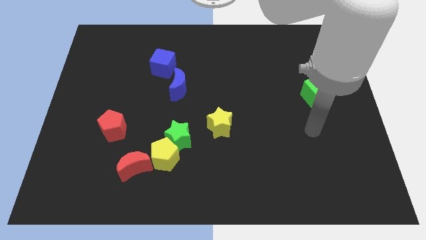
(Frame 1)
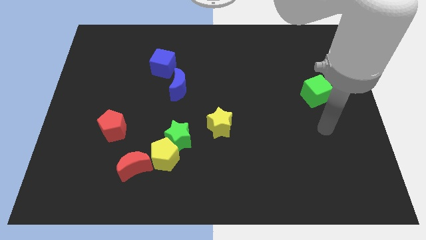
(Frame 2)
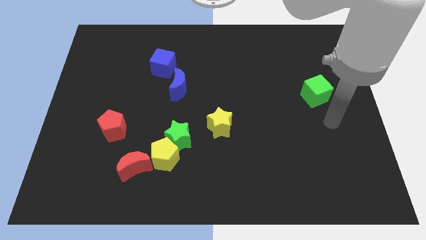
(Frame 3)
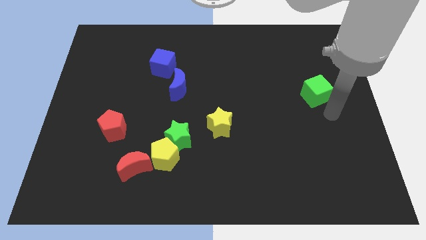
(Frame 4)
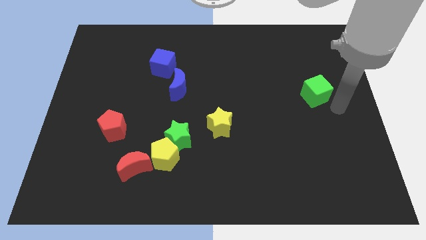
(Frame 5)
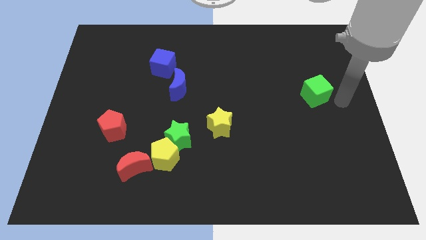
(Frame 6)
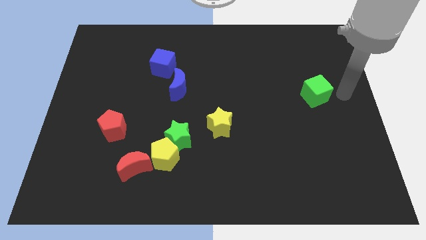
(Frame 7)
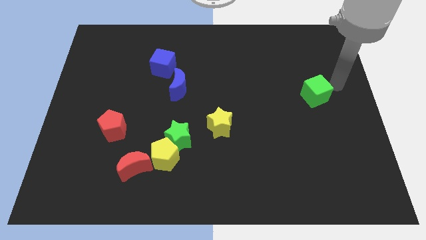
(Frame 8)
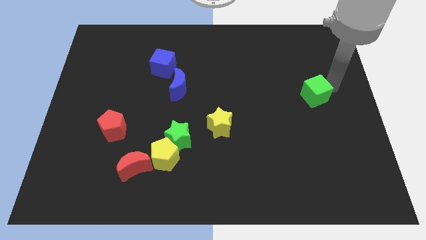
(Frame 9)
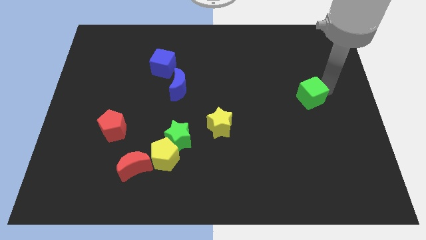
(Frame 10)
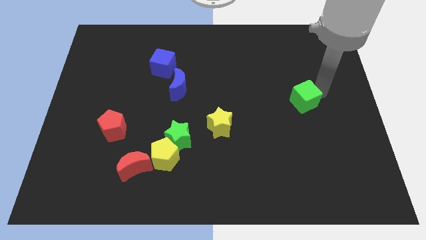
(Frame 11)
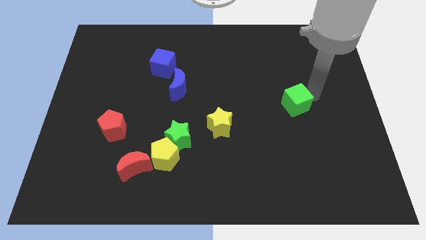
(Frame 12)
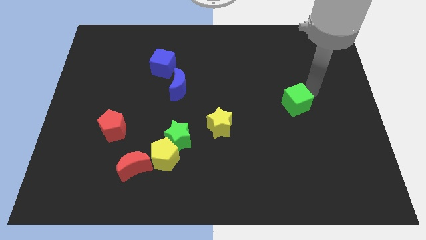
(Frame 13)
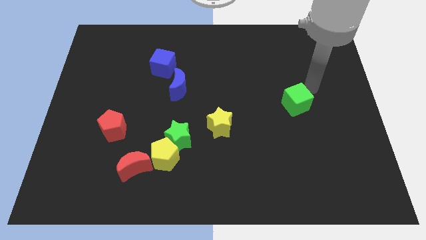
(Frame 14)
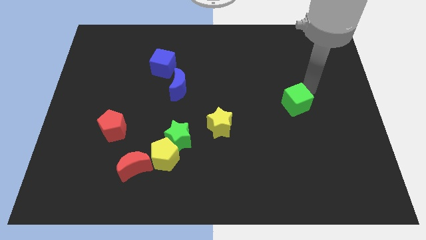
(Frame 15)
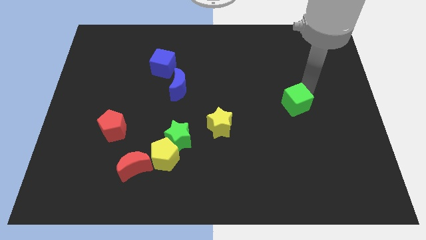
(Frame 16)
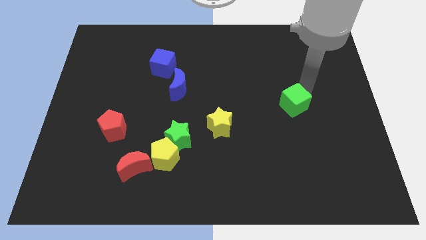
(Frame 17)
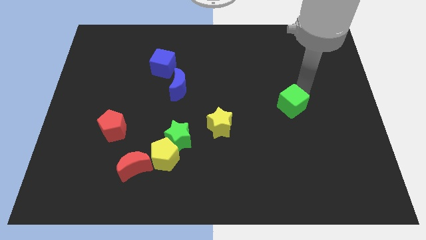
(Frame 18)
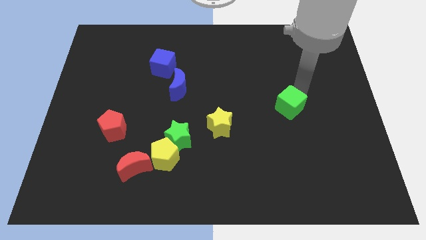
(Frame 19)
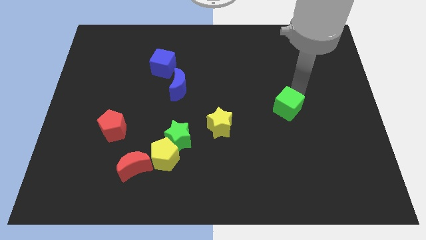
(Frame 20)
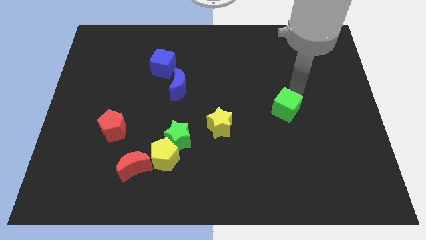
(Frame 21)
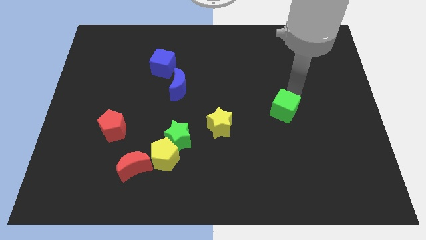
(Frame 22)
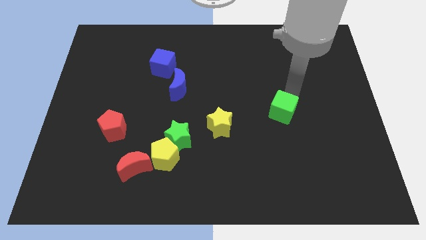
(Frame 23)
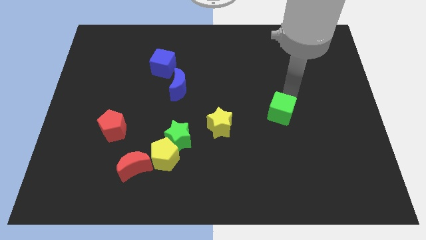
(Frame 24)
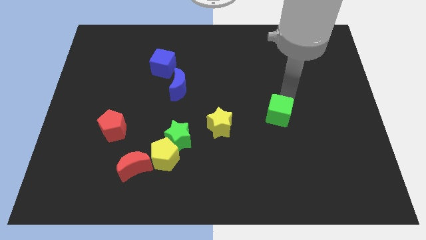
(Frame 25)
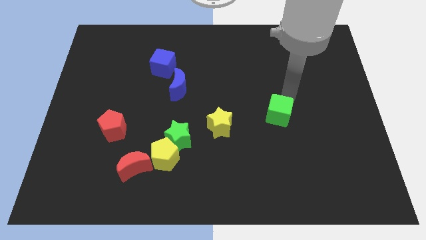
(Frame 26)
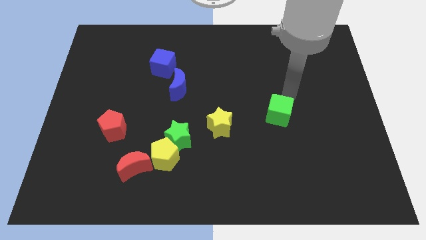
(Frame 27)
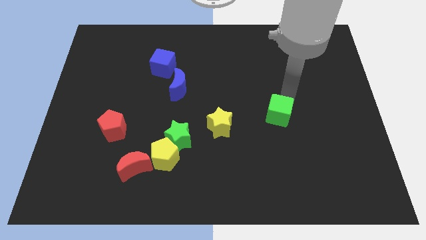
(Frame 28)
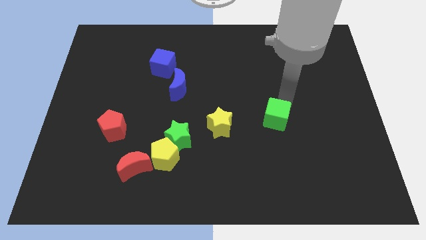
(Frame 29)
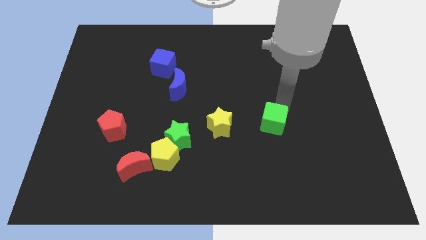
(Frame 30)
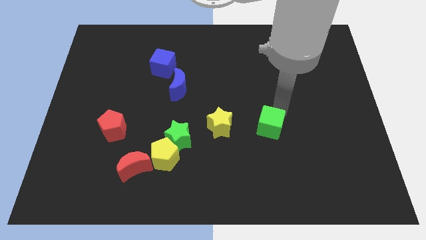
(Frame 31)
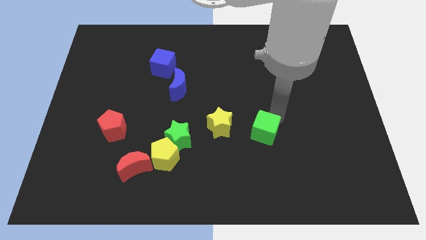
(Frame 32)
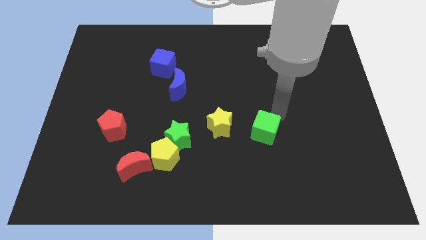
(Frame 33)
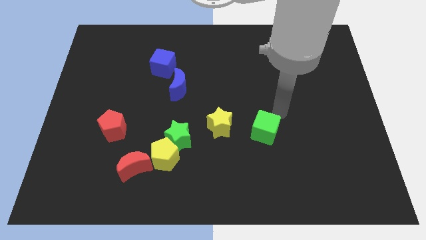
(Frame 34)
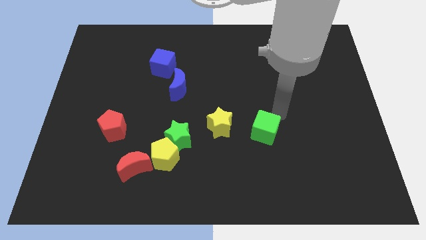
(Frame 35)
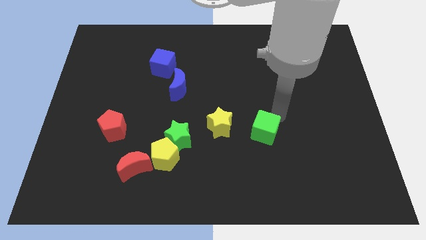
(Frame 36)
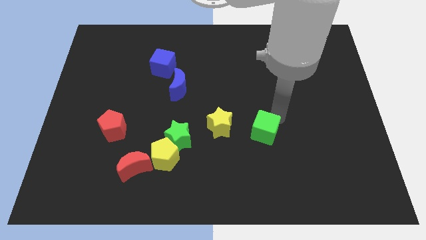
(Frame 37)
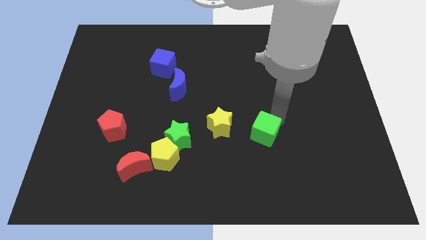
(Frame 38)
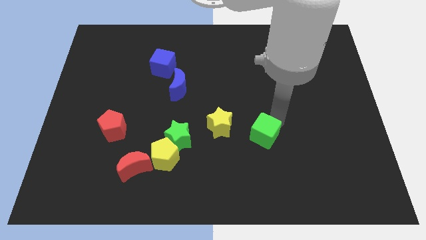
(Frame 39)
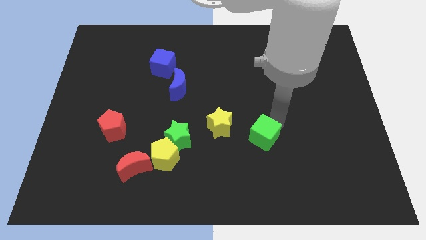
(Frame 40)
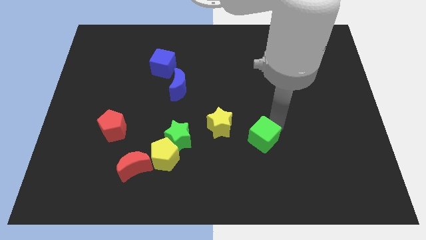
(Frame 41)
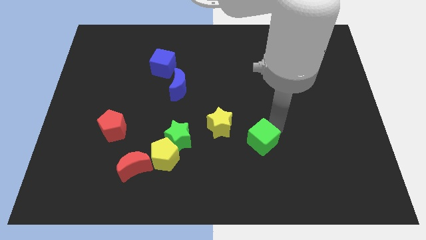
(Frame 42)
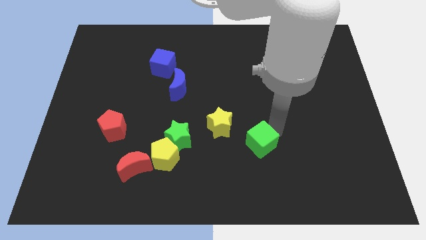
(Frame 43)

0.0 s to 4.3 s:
move the green cube downwards and then to the left

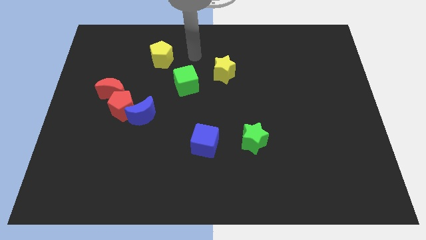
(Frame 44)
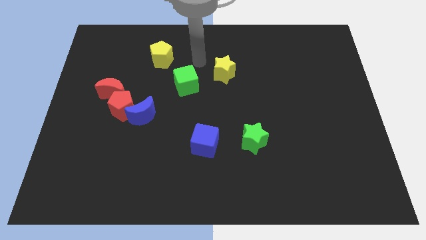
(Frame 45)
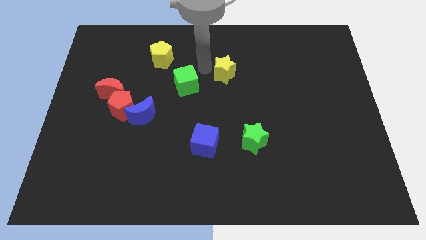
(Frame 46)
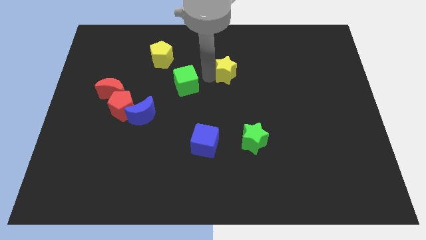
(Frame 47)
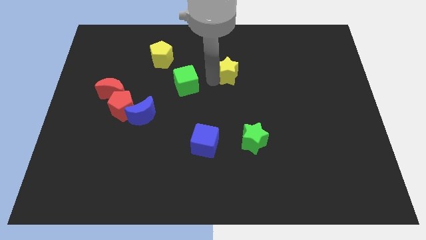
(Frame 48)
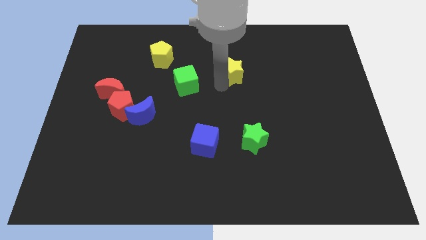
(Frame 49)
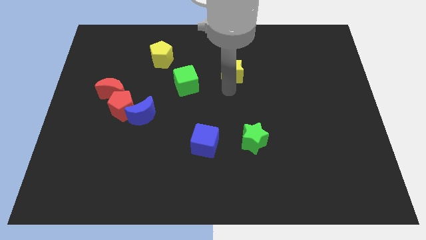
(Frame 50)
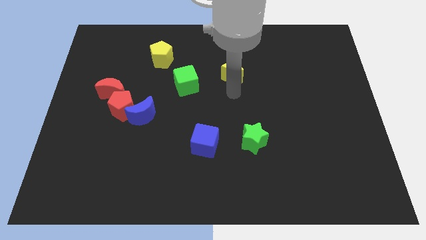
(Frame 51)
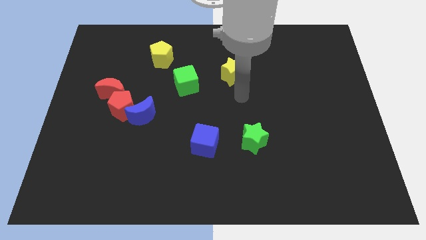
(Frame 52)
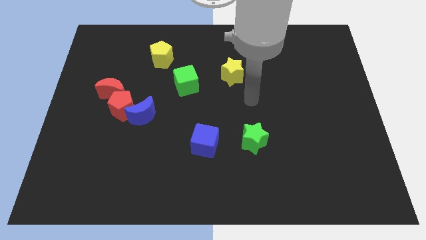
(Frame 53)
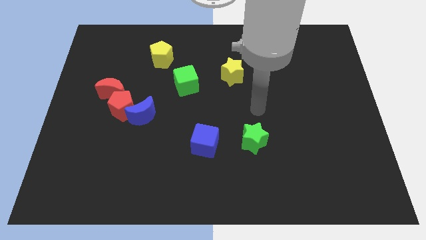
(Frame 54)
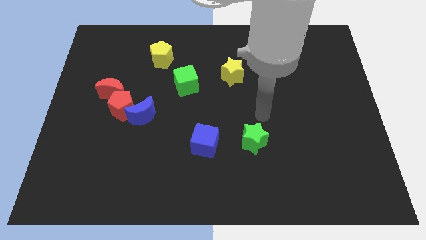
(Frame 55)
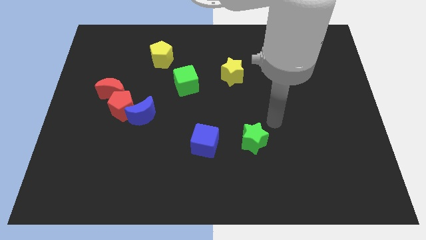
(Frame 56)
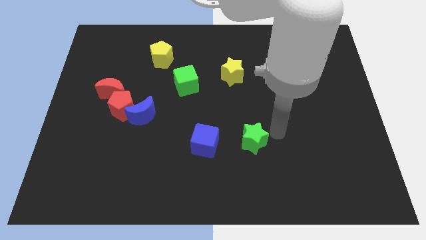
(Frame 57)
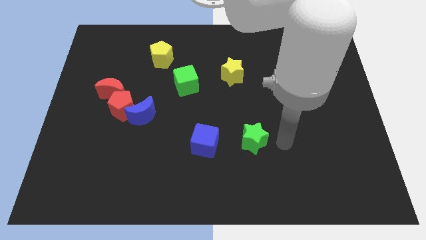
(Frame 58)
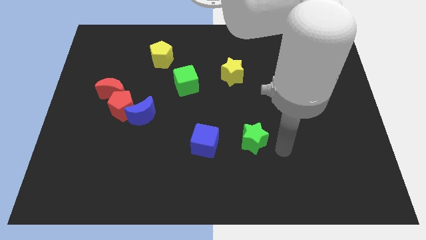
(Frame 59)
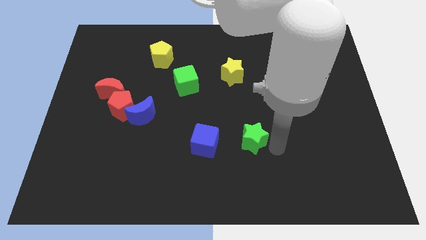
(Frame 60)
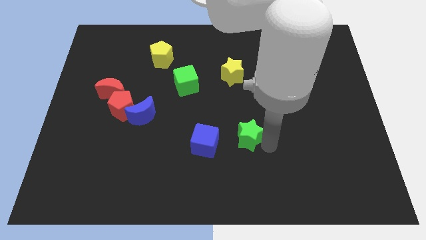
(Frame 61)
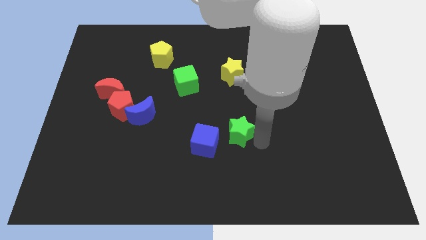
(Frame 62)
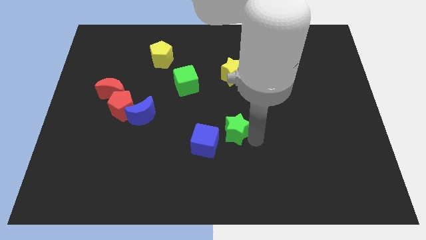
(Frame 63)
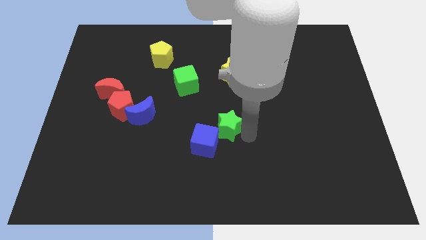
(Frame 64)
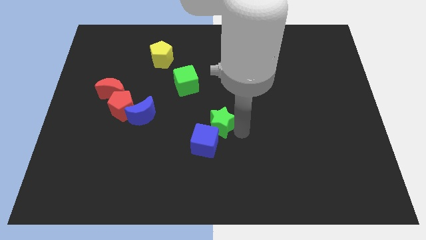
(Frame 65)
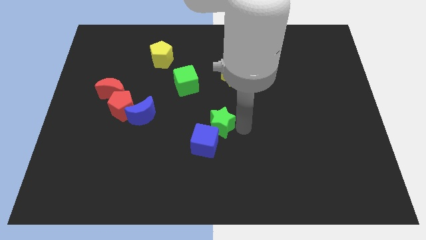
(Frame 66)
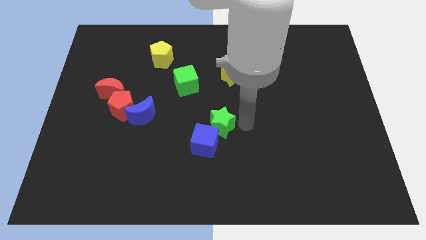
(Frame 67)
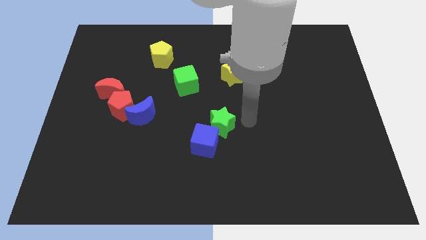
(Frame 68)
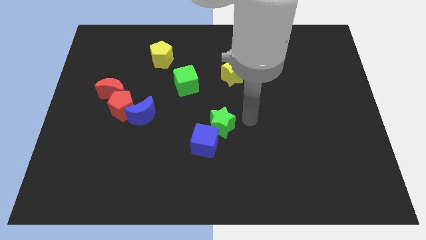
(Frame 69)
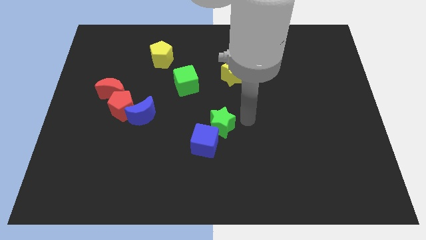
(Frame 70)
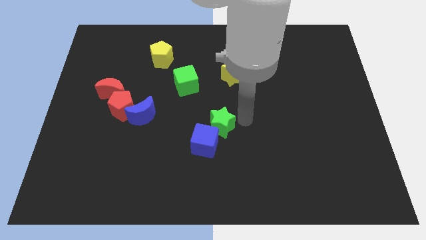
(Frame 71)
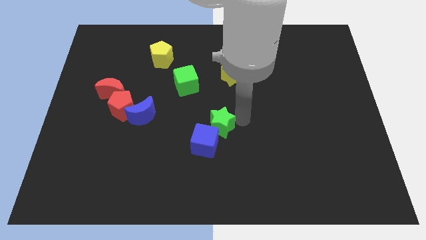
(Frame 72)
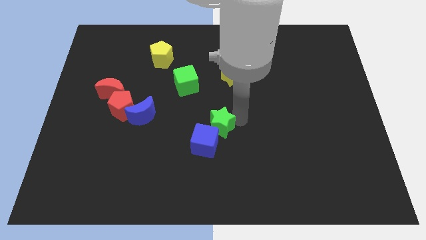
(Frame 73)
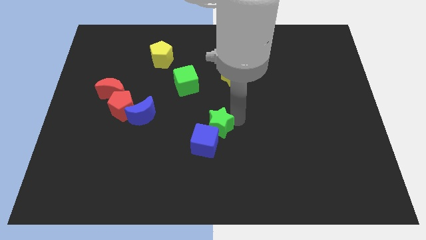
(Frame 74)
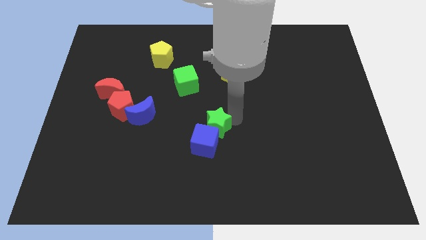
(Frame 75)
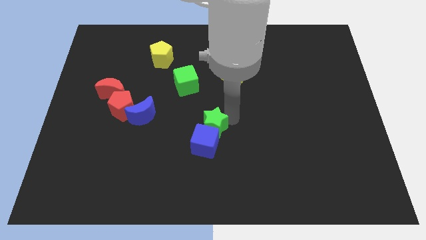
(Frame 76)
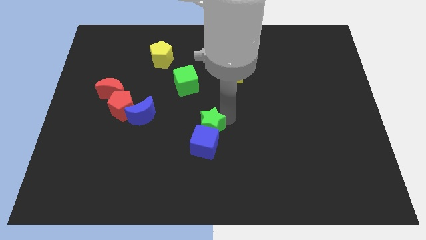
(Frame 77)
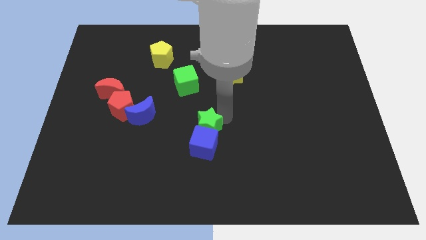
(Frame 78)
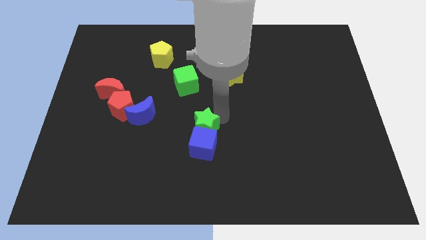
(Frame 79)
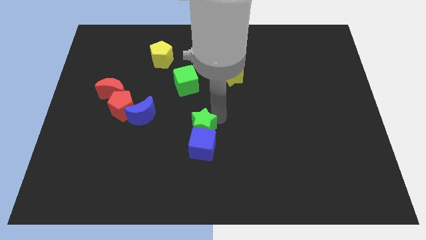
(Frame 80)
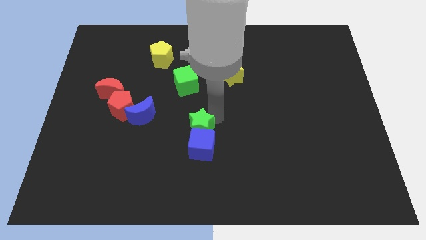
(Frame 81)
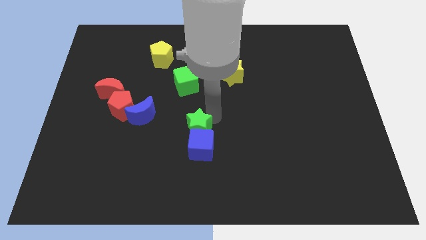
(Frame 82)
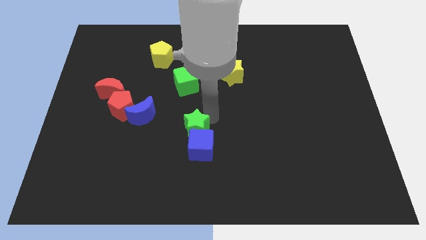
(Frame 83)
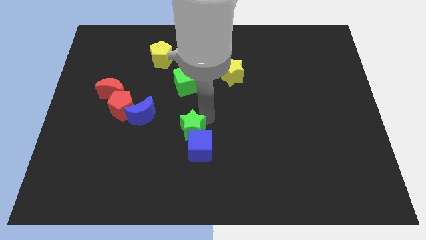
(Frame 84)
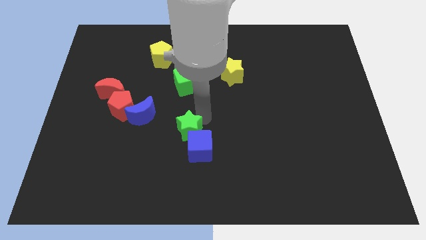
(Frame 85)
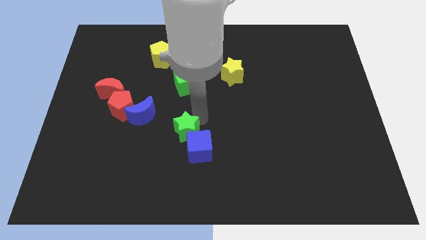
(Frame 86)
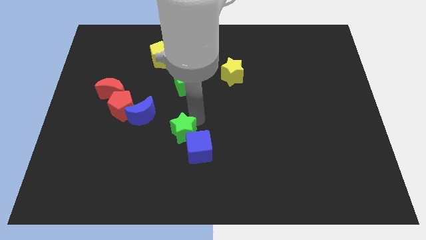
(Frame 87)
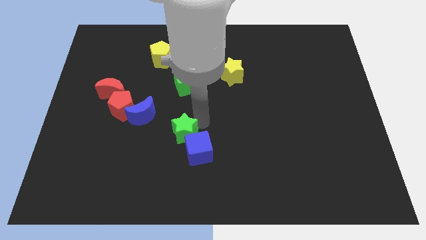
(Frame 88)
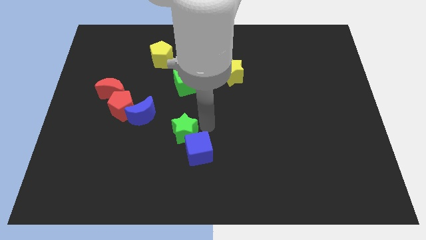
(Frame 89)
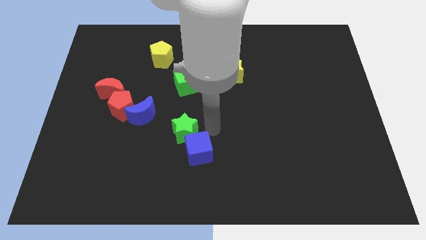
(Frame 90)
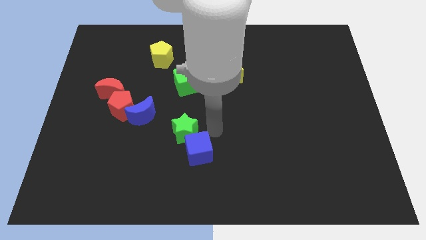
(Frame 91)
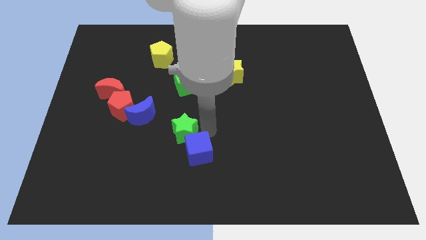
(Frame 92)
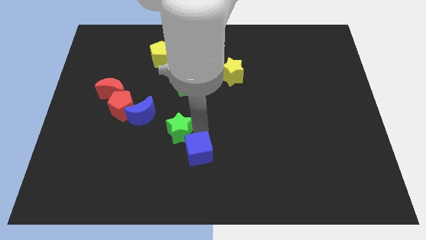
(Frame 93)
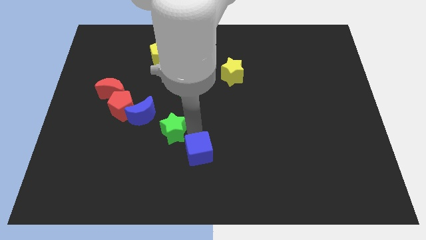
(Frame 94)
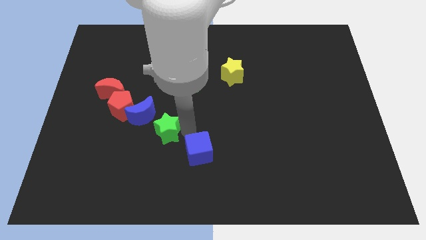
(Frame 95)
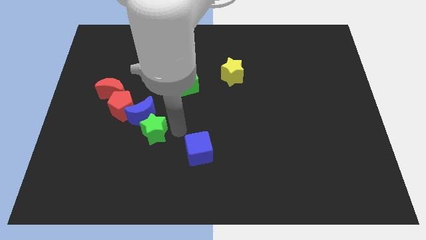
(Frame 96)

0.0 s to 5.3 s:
push the green star left
